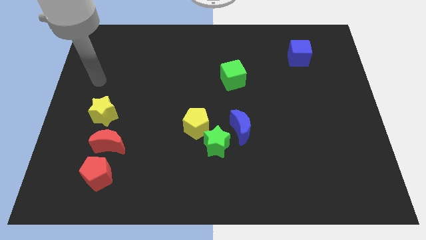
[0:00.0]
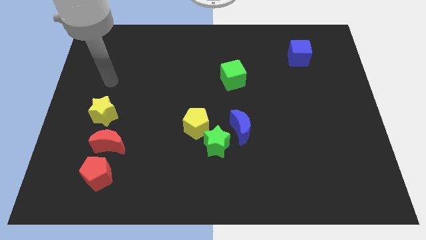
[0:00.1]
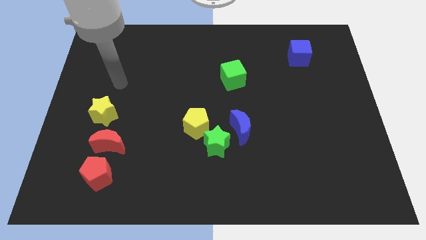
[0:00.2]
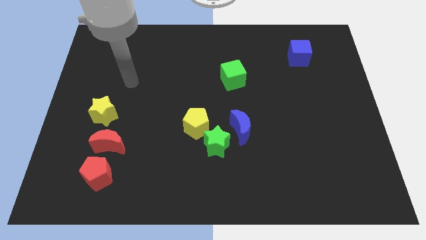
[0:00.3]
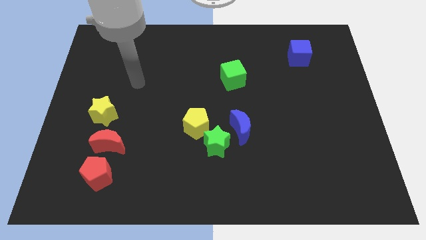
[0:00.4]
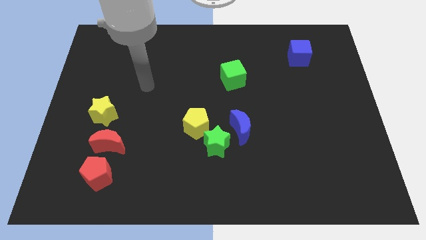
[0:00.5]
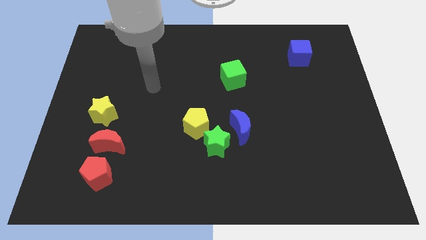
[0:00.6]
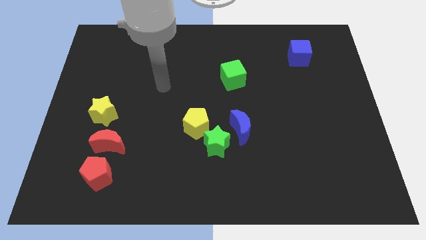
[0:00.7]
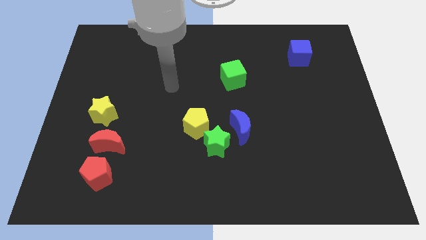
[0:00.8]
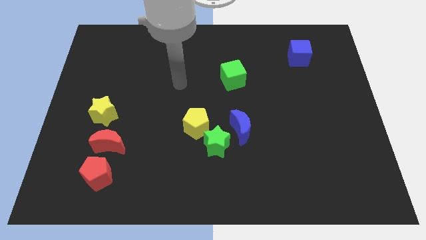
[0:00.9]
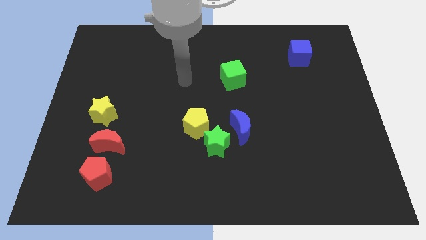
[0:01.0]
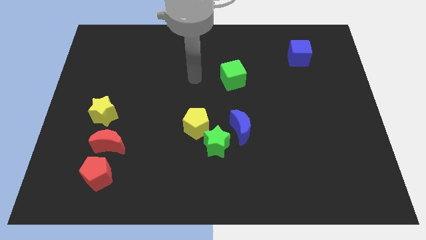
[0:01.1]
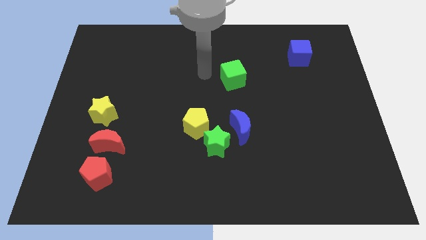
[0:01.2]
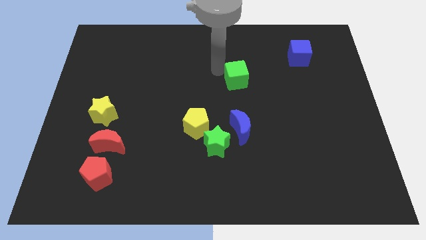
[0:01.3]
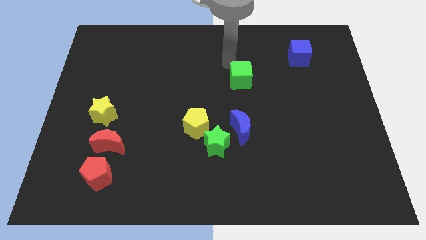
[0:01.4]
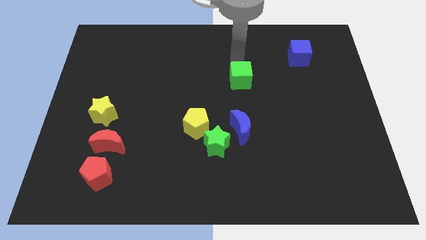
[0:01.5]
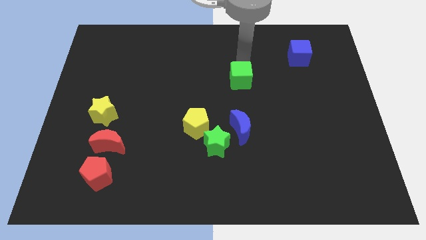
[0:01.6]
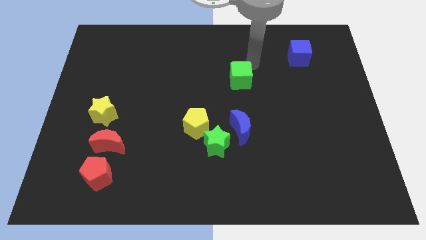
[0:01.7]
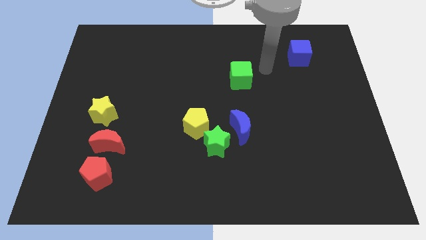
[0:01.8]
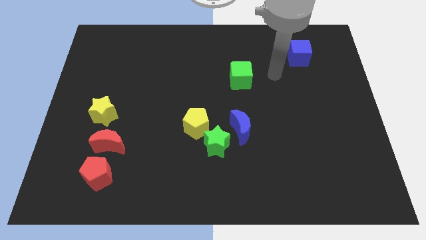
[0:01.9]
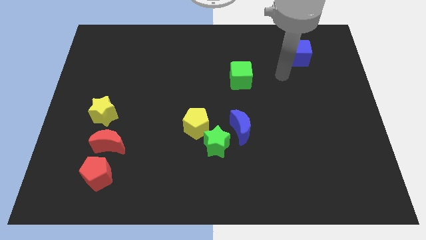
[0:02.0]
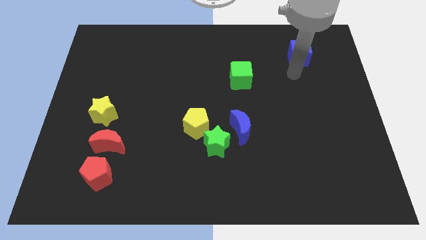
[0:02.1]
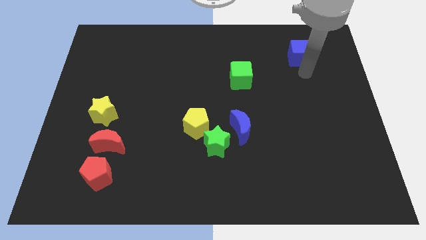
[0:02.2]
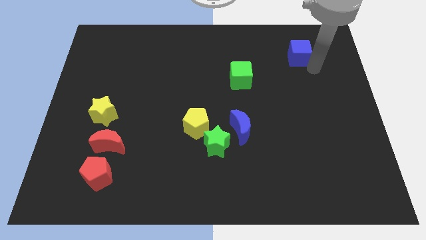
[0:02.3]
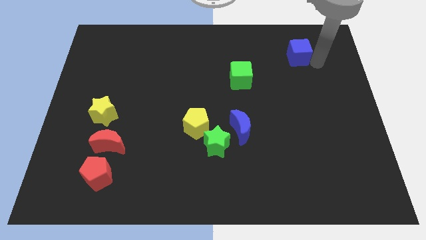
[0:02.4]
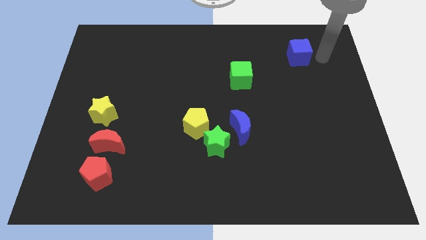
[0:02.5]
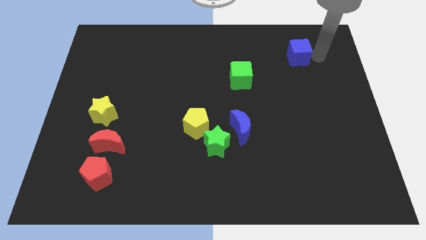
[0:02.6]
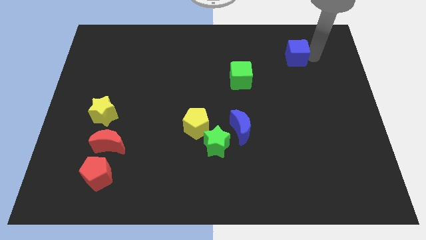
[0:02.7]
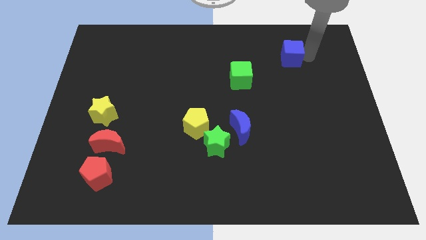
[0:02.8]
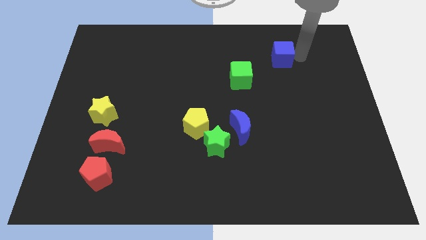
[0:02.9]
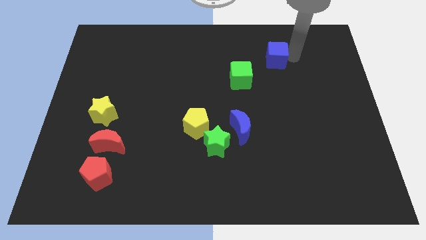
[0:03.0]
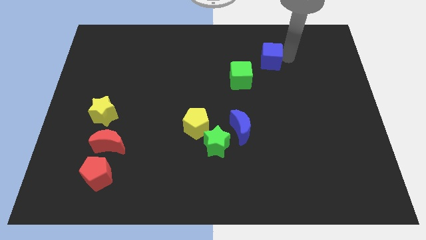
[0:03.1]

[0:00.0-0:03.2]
move the blue cube a bit to the left

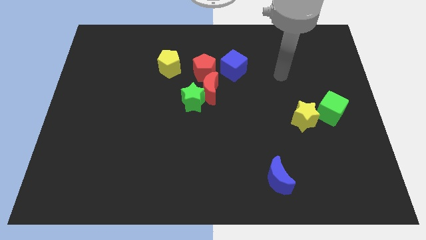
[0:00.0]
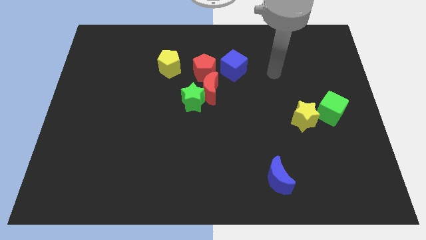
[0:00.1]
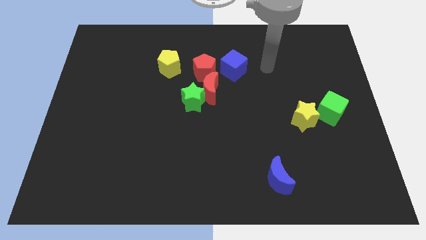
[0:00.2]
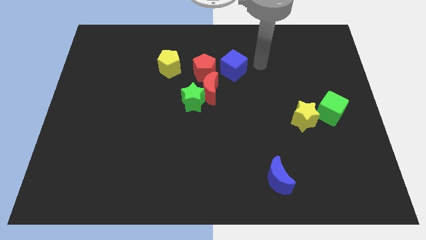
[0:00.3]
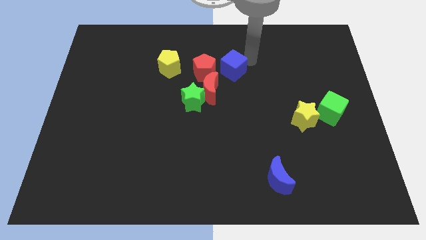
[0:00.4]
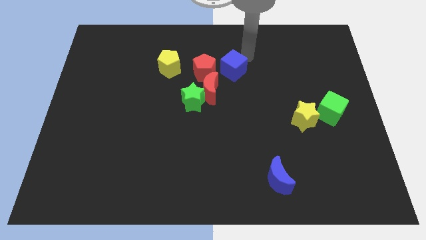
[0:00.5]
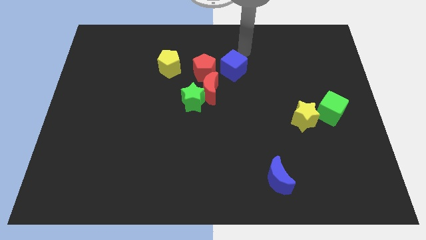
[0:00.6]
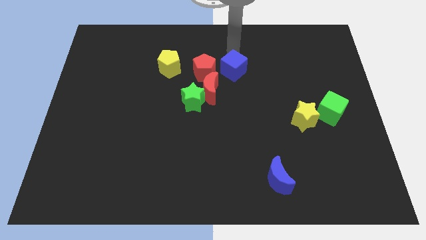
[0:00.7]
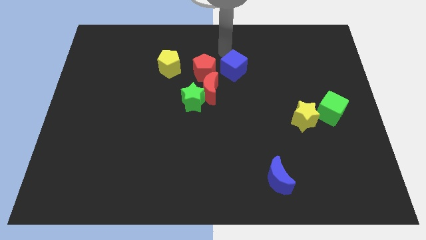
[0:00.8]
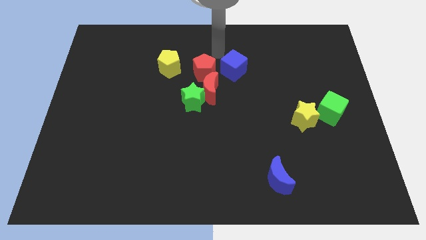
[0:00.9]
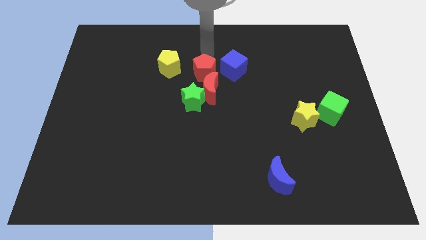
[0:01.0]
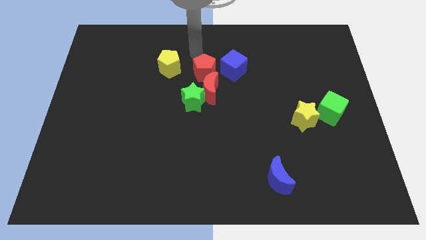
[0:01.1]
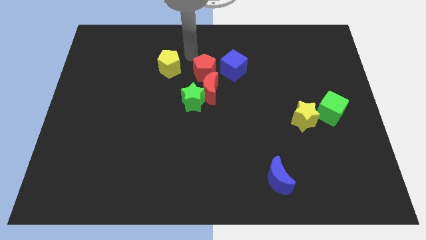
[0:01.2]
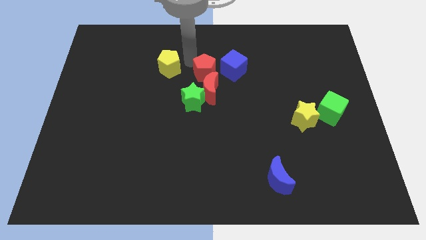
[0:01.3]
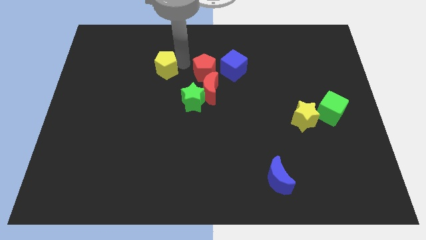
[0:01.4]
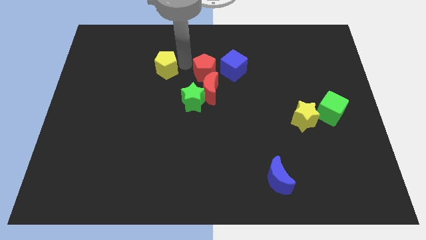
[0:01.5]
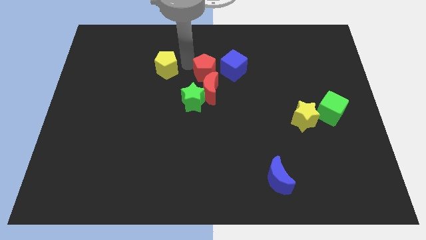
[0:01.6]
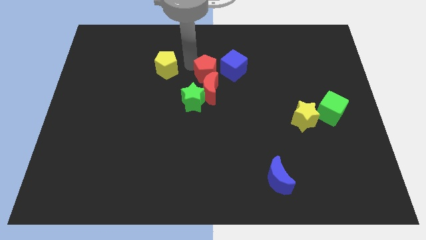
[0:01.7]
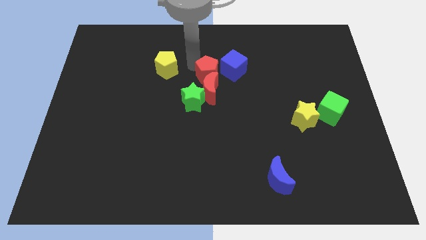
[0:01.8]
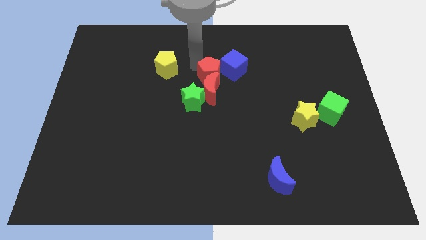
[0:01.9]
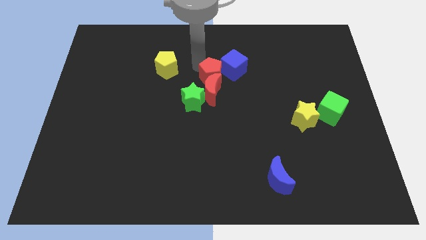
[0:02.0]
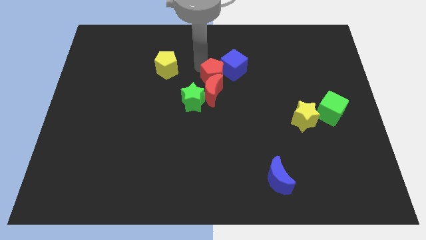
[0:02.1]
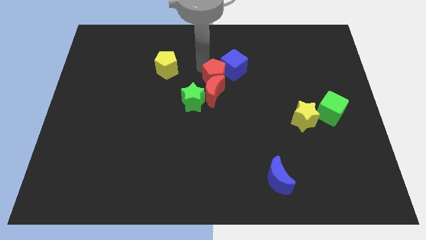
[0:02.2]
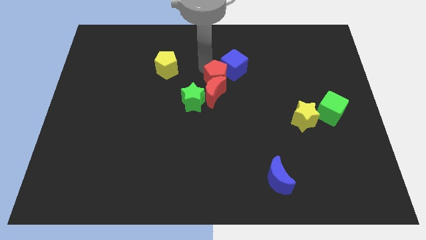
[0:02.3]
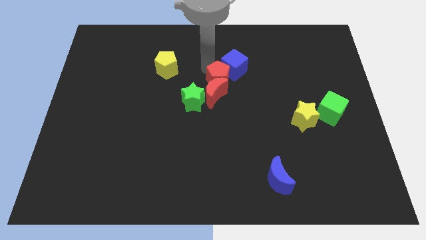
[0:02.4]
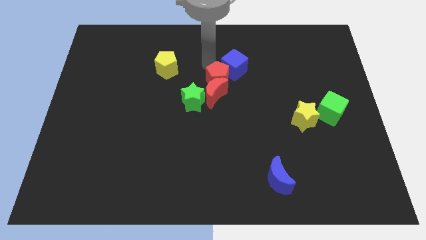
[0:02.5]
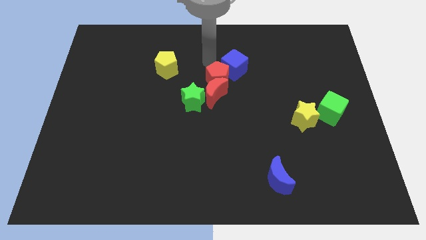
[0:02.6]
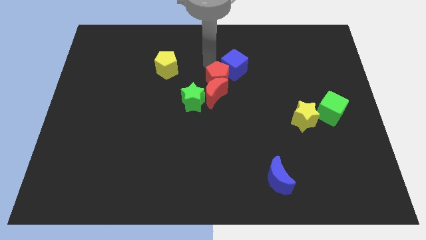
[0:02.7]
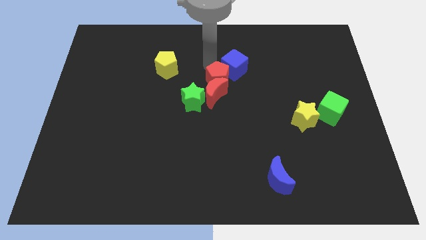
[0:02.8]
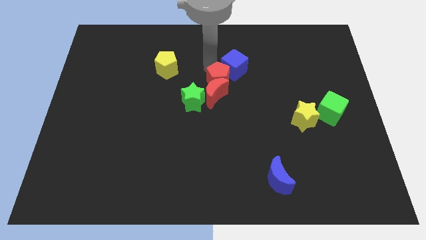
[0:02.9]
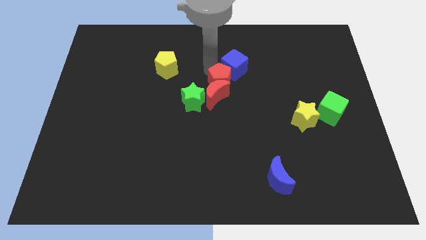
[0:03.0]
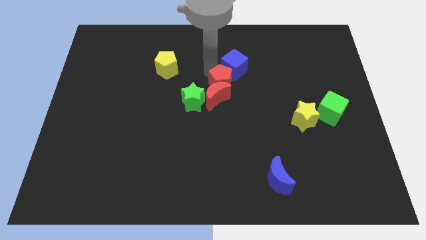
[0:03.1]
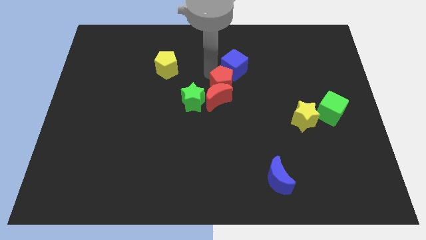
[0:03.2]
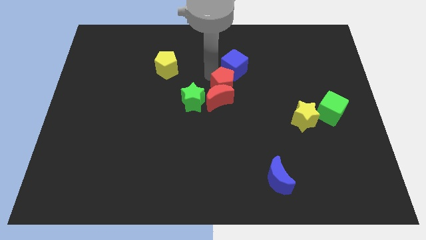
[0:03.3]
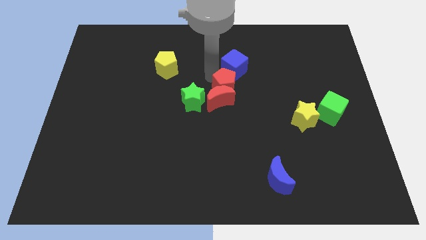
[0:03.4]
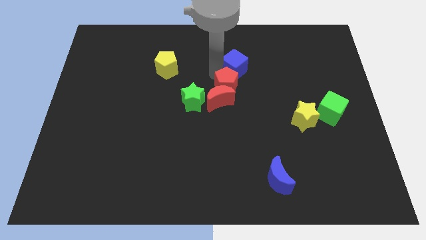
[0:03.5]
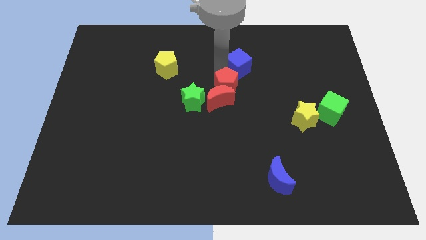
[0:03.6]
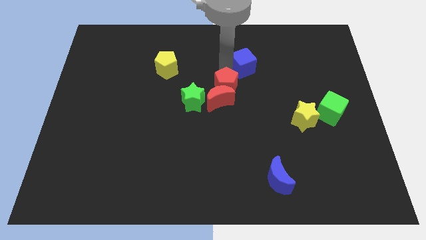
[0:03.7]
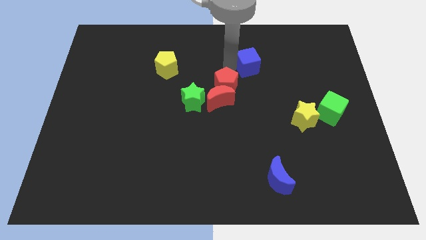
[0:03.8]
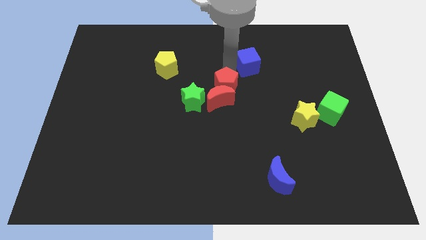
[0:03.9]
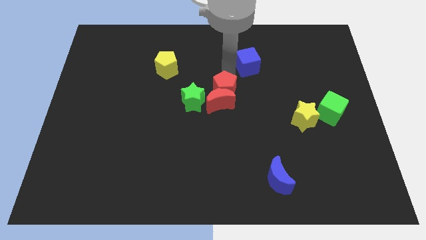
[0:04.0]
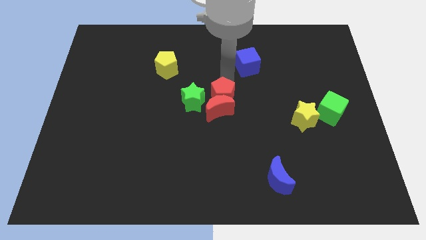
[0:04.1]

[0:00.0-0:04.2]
push the red pentagon down a little

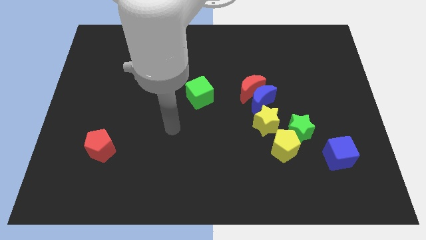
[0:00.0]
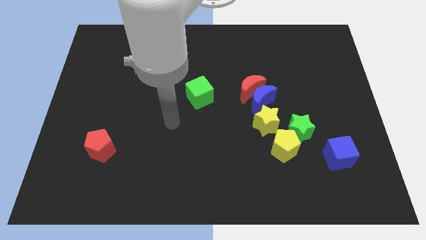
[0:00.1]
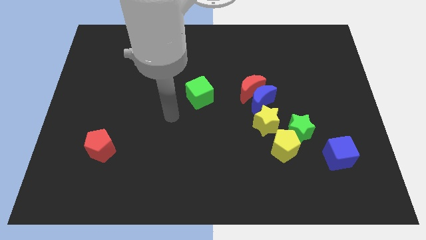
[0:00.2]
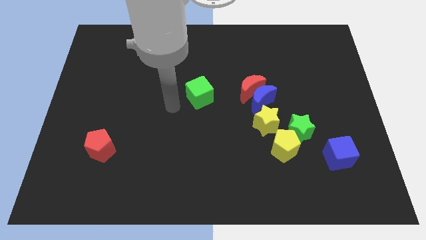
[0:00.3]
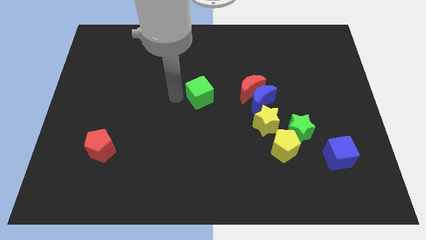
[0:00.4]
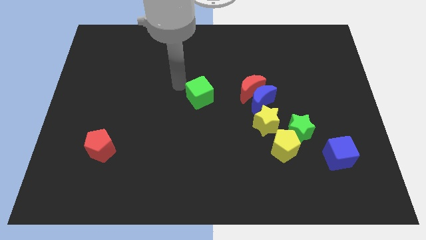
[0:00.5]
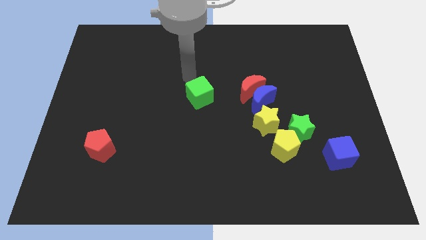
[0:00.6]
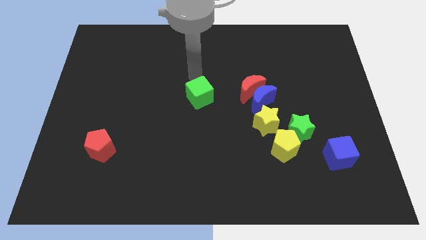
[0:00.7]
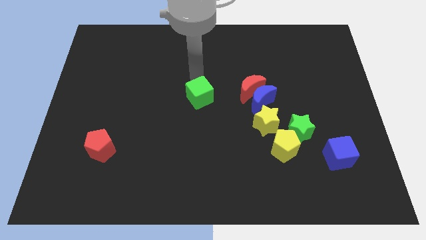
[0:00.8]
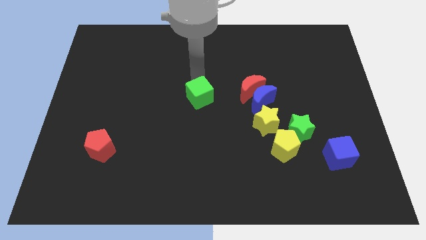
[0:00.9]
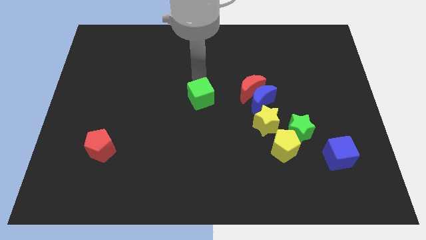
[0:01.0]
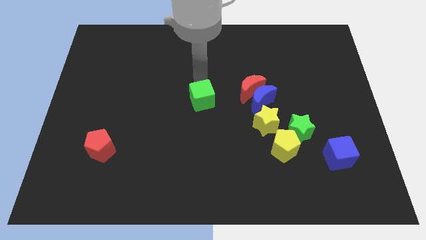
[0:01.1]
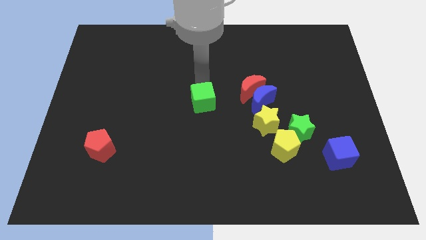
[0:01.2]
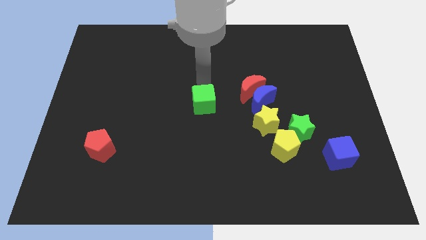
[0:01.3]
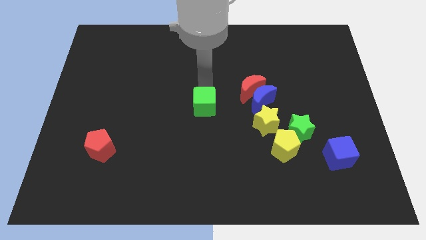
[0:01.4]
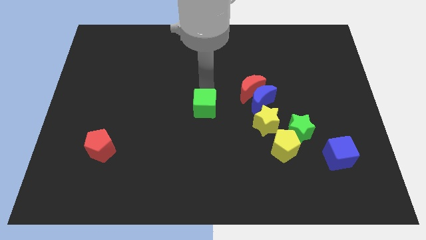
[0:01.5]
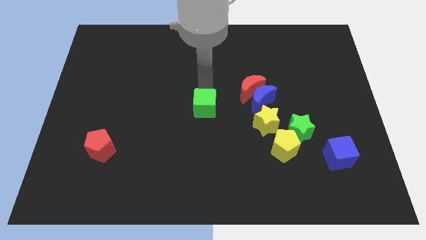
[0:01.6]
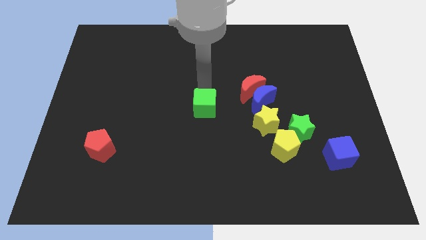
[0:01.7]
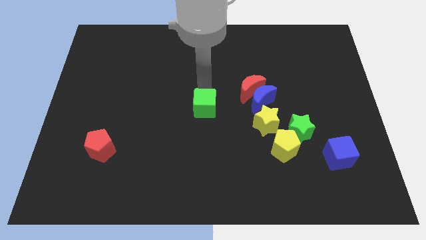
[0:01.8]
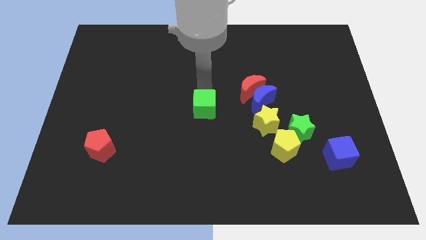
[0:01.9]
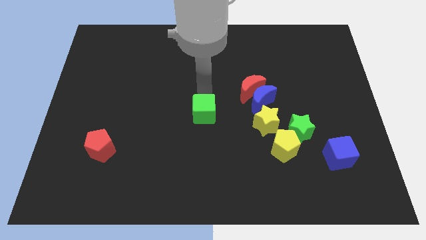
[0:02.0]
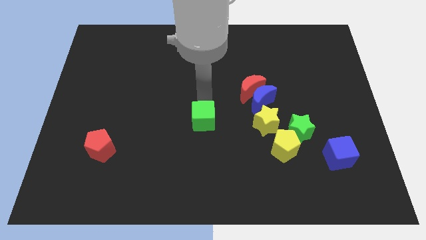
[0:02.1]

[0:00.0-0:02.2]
move the green cube a little downwards
